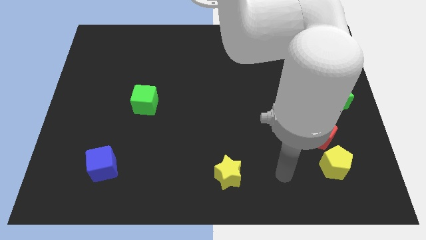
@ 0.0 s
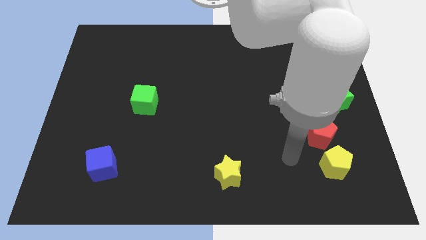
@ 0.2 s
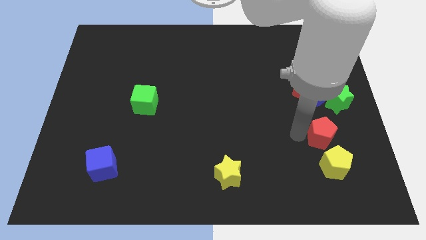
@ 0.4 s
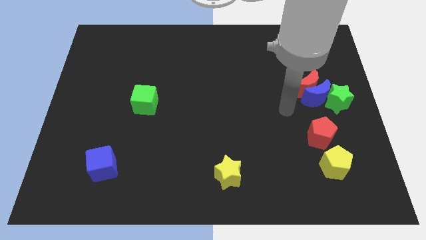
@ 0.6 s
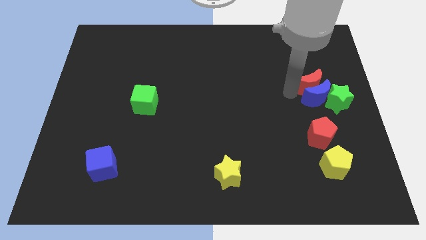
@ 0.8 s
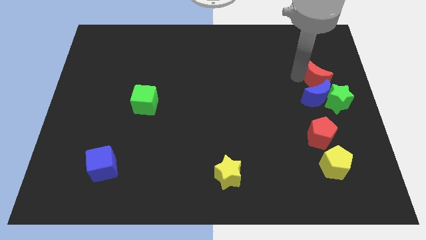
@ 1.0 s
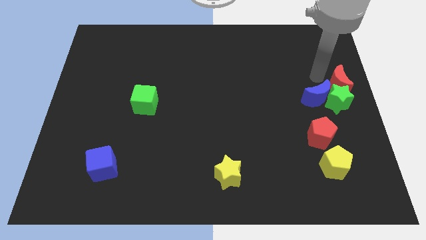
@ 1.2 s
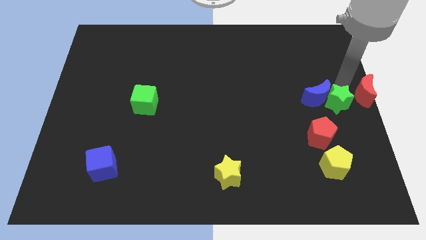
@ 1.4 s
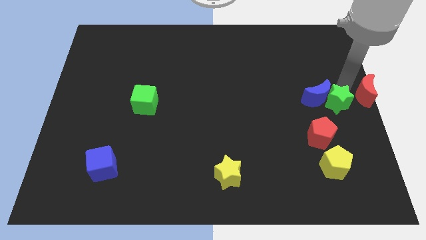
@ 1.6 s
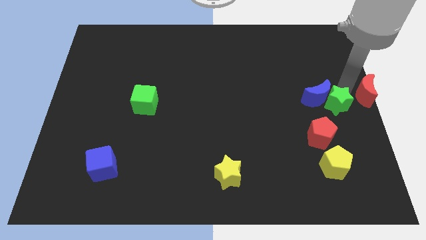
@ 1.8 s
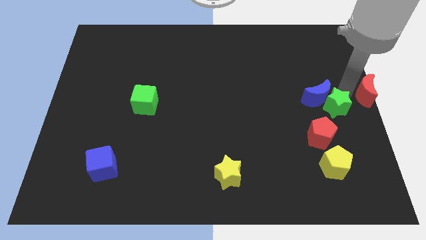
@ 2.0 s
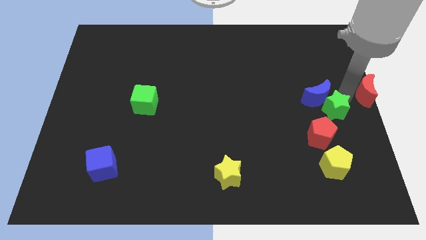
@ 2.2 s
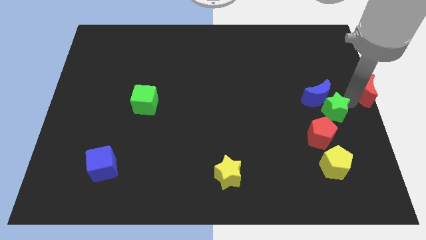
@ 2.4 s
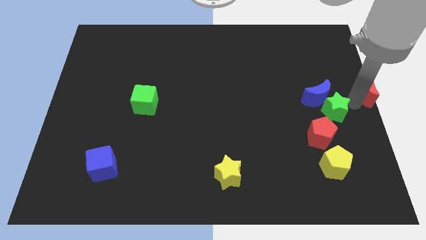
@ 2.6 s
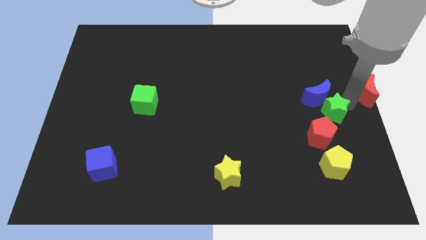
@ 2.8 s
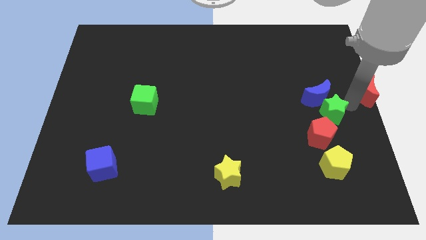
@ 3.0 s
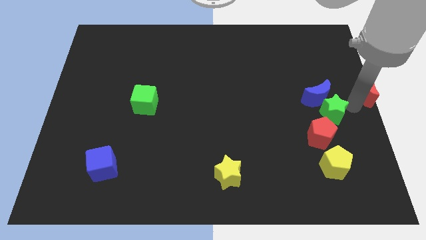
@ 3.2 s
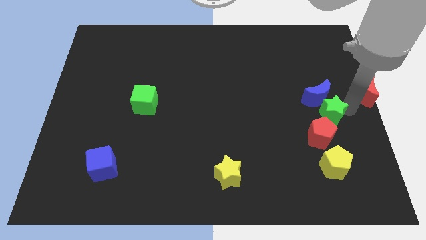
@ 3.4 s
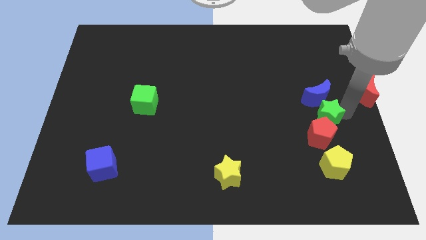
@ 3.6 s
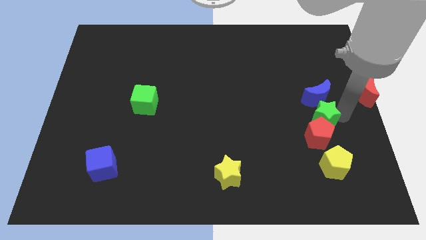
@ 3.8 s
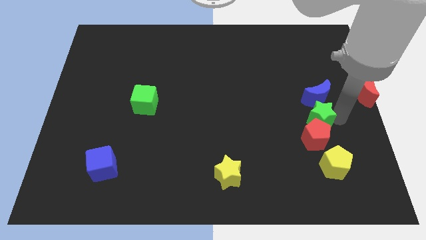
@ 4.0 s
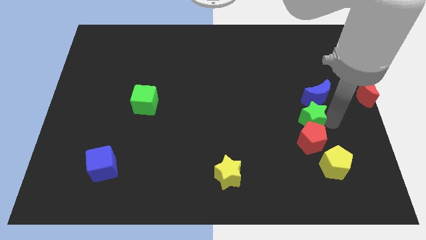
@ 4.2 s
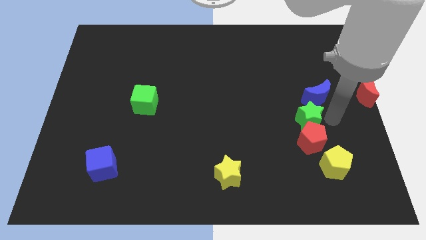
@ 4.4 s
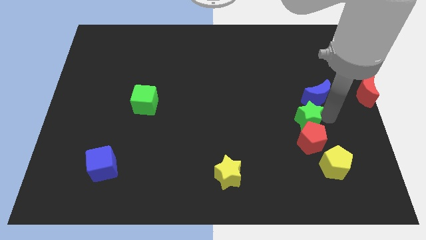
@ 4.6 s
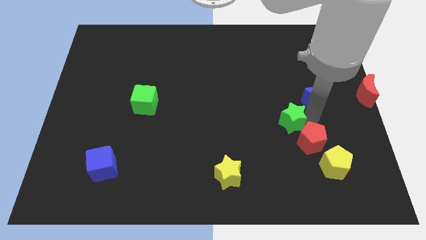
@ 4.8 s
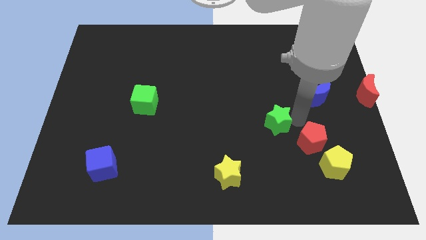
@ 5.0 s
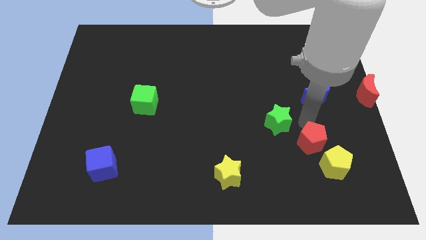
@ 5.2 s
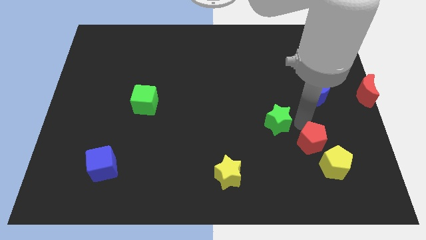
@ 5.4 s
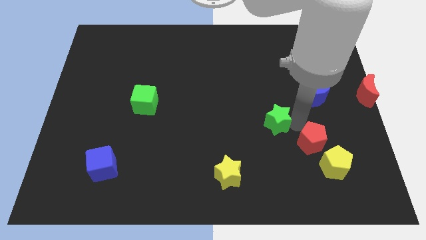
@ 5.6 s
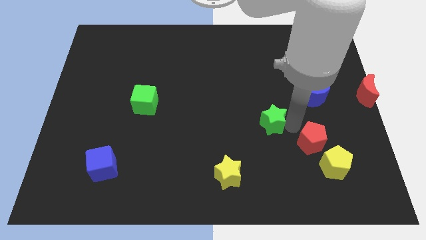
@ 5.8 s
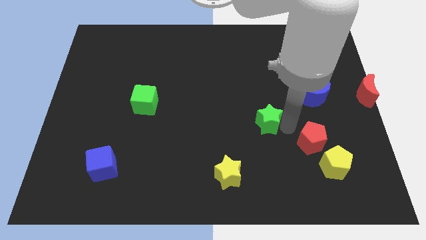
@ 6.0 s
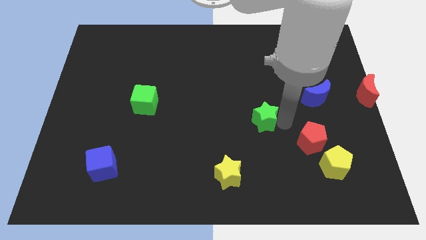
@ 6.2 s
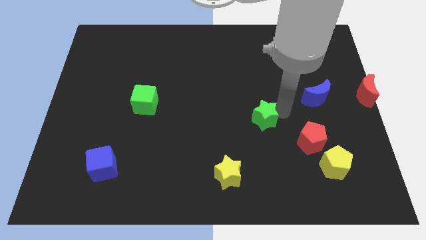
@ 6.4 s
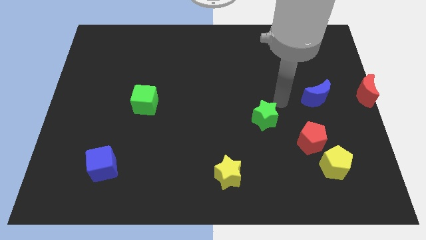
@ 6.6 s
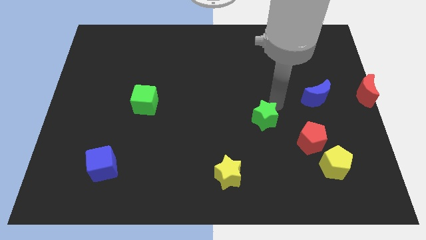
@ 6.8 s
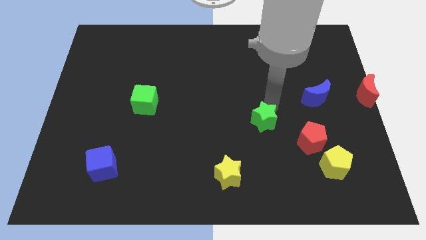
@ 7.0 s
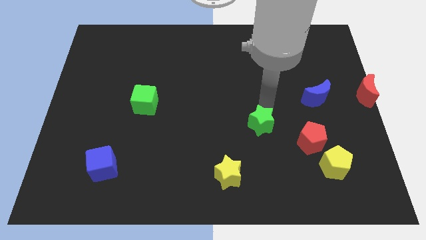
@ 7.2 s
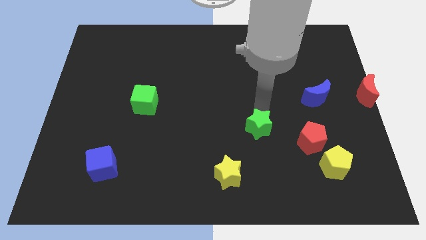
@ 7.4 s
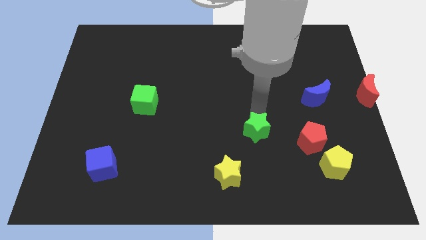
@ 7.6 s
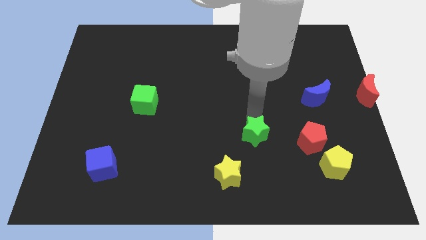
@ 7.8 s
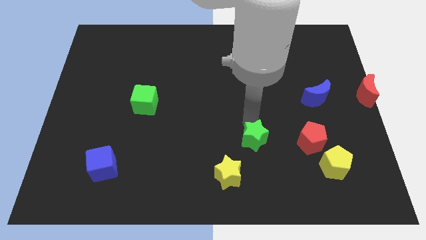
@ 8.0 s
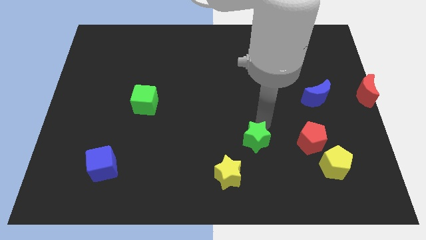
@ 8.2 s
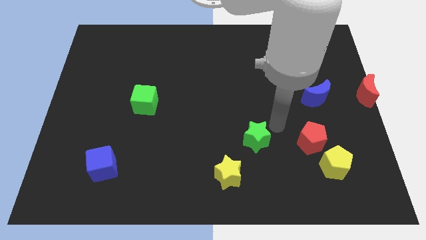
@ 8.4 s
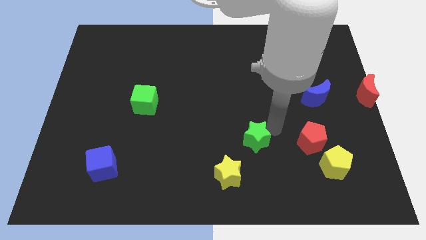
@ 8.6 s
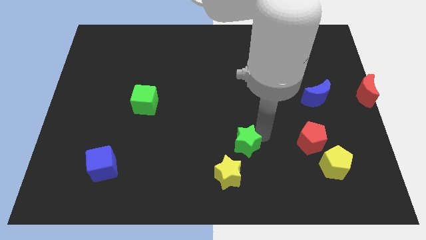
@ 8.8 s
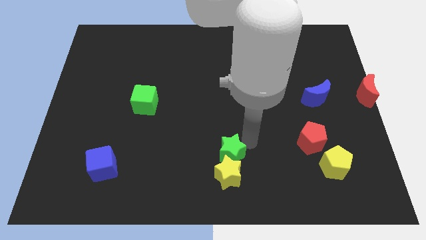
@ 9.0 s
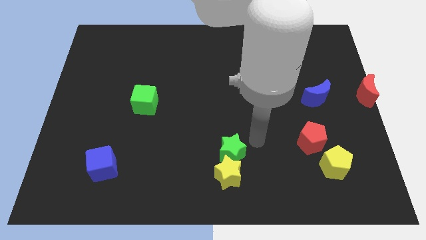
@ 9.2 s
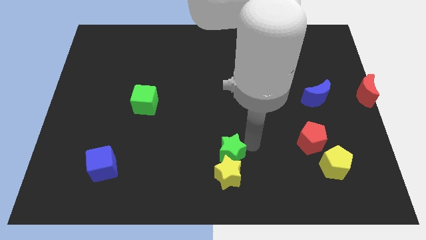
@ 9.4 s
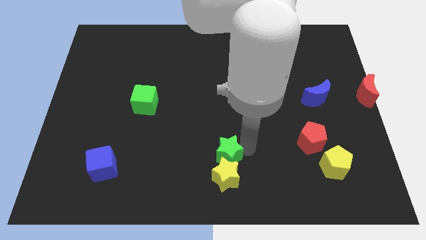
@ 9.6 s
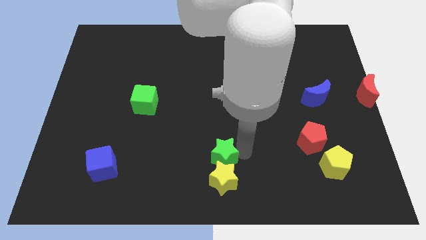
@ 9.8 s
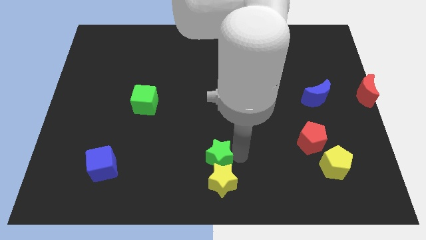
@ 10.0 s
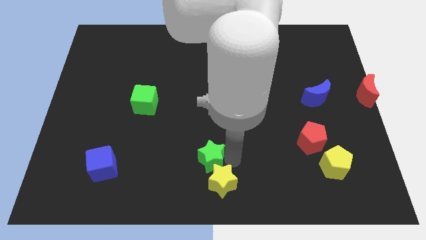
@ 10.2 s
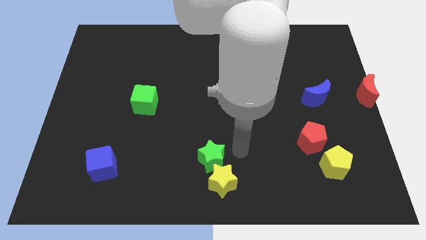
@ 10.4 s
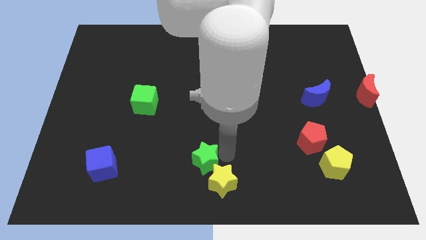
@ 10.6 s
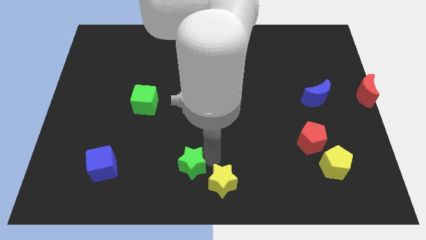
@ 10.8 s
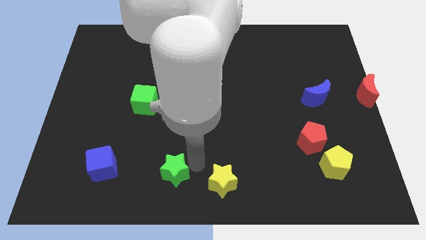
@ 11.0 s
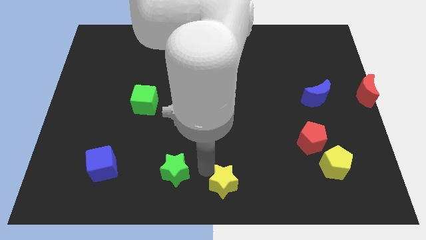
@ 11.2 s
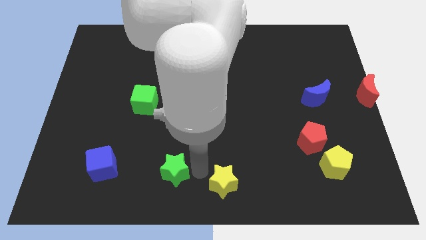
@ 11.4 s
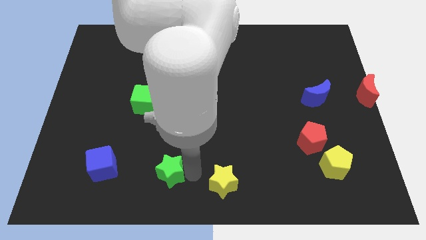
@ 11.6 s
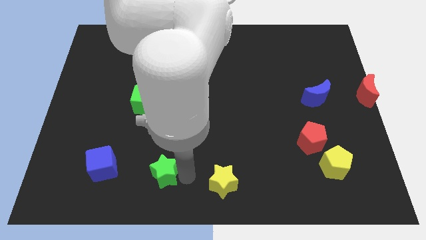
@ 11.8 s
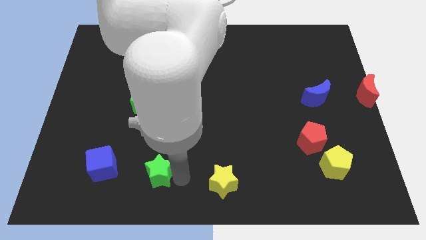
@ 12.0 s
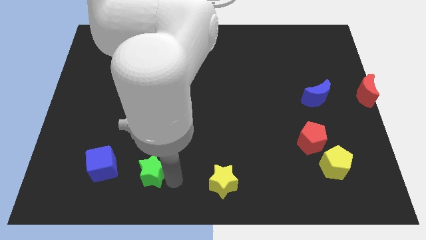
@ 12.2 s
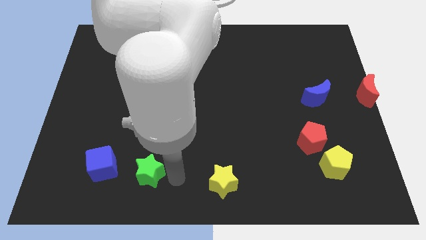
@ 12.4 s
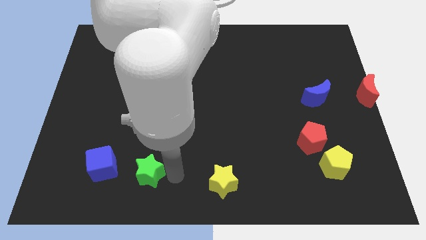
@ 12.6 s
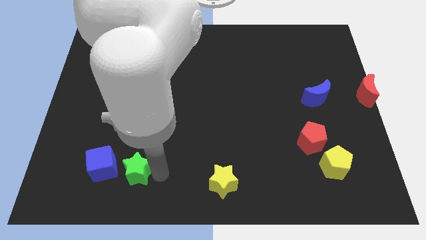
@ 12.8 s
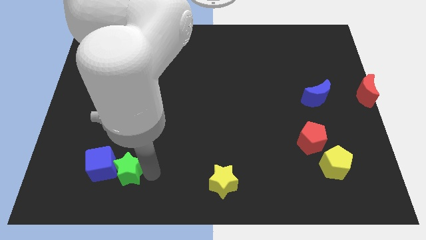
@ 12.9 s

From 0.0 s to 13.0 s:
move the green star towards the blue cube
